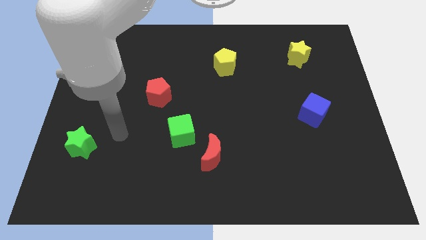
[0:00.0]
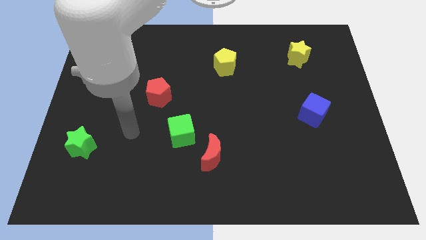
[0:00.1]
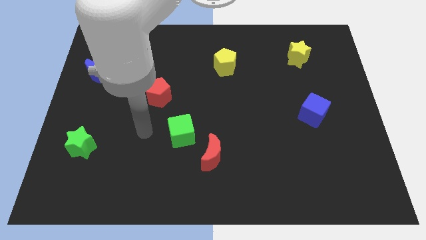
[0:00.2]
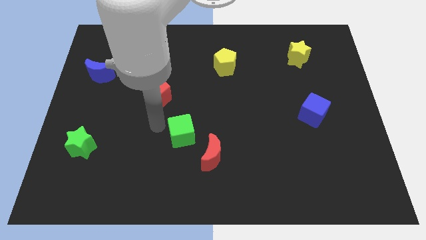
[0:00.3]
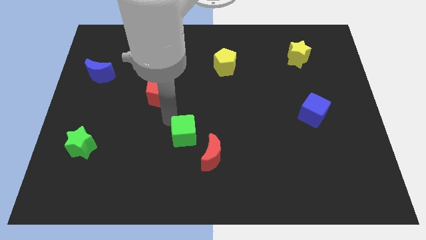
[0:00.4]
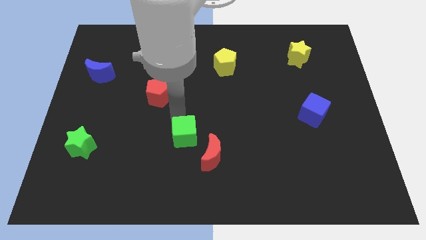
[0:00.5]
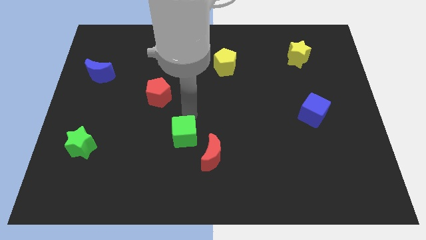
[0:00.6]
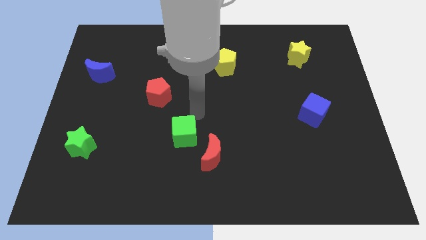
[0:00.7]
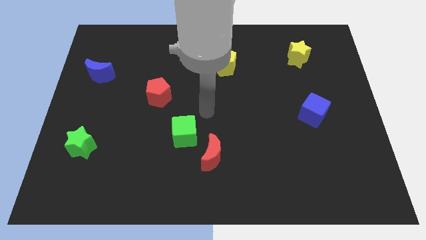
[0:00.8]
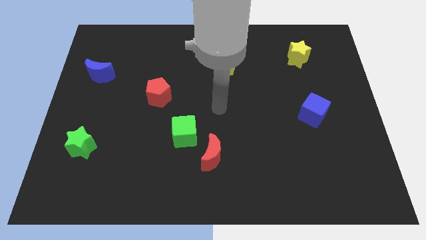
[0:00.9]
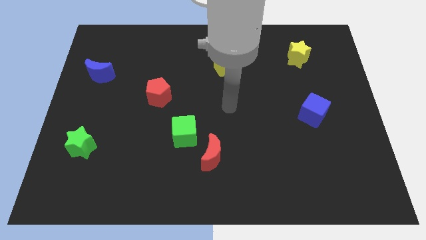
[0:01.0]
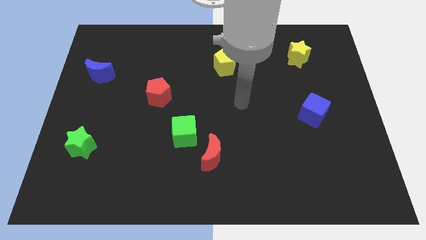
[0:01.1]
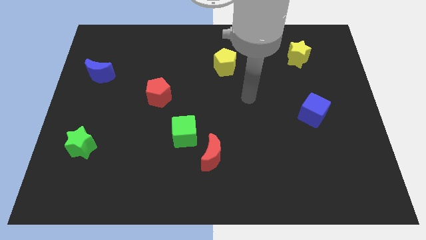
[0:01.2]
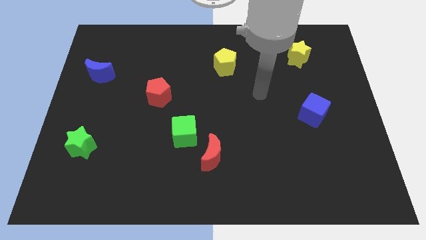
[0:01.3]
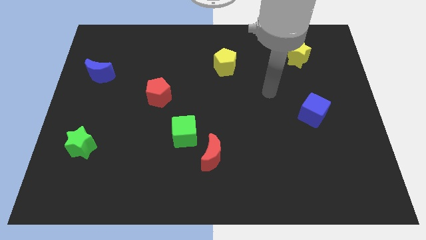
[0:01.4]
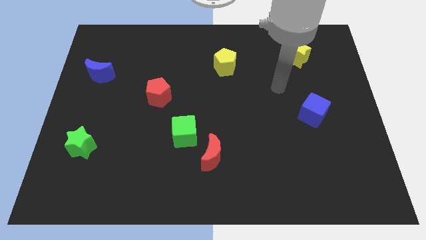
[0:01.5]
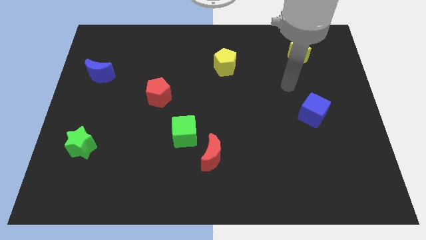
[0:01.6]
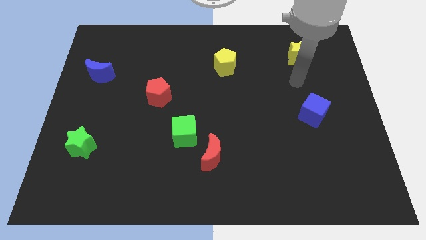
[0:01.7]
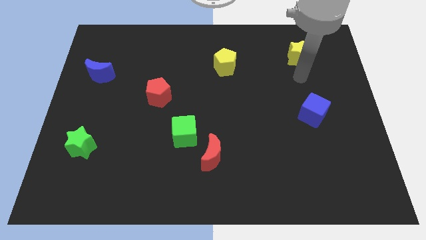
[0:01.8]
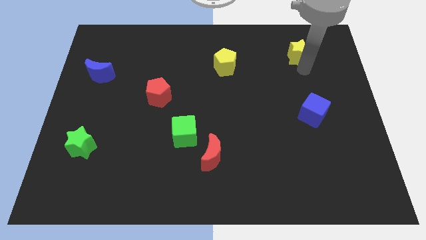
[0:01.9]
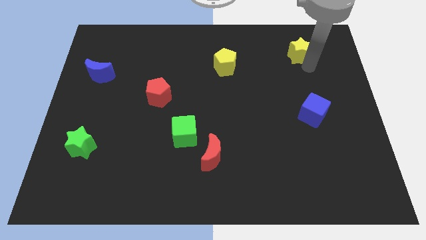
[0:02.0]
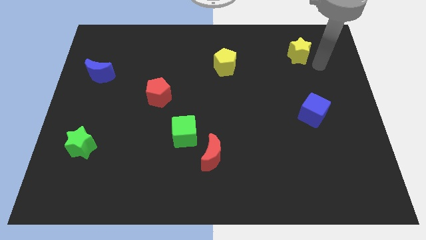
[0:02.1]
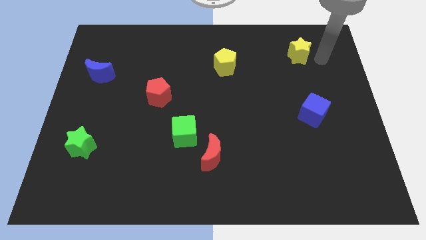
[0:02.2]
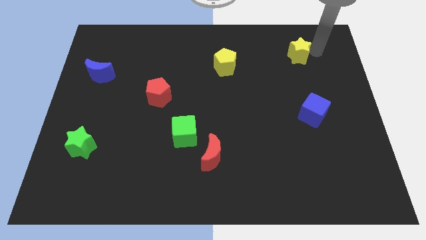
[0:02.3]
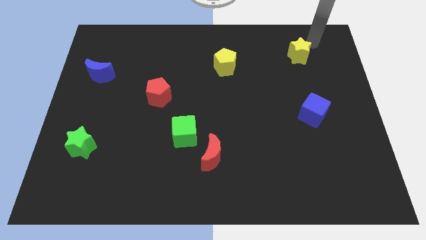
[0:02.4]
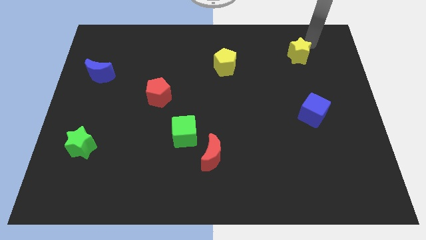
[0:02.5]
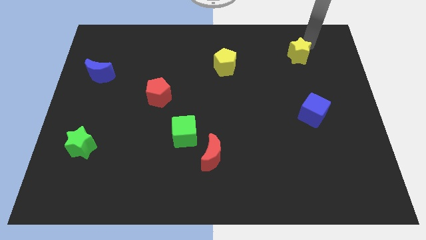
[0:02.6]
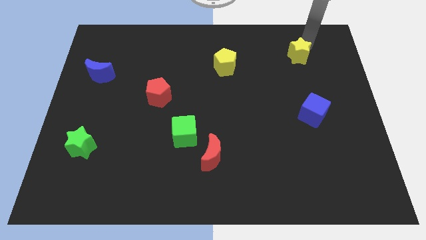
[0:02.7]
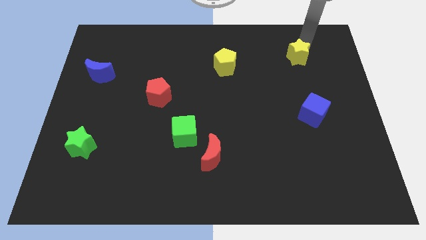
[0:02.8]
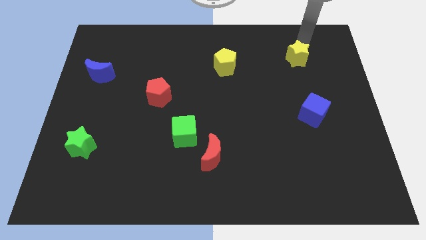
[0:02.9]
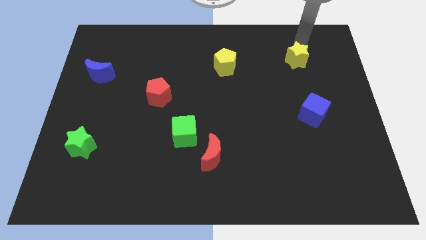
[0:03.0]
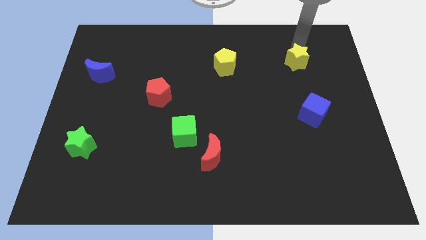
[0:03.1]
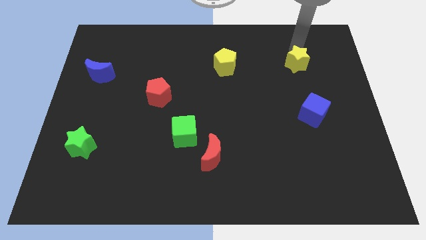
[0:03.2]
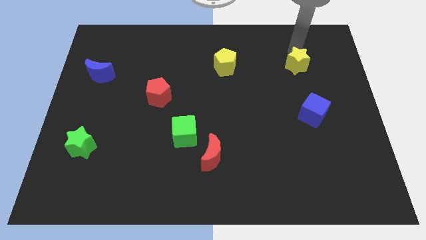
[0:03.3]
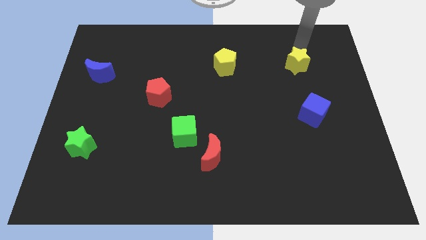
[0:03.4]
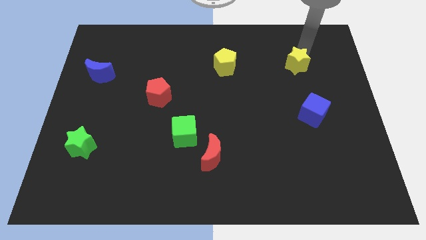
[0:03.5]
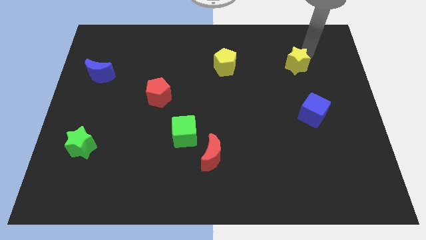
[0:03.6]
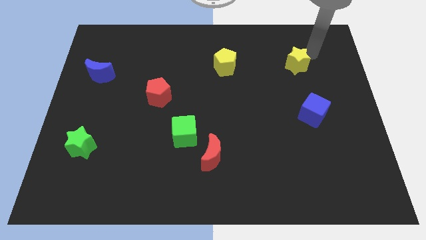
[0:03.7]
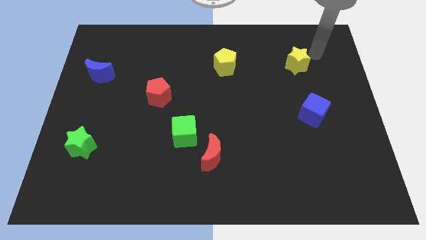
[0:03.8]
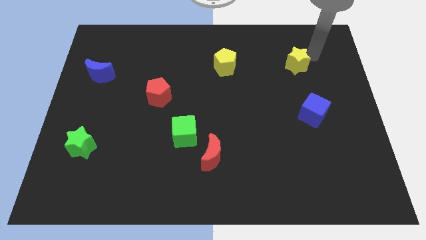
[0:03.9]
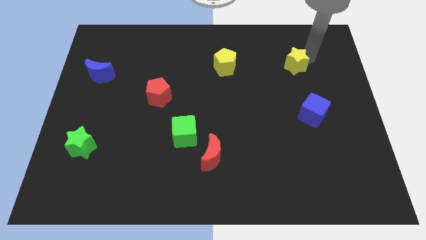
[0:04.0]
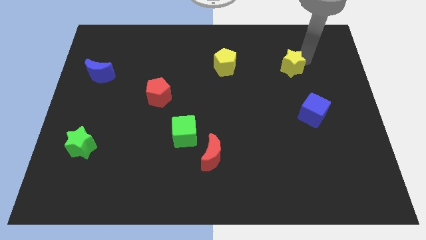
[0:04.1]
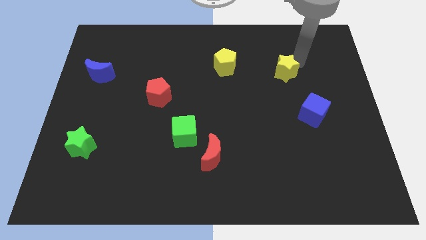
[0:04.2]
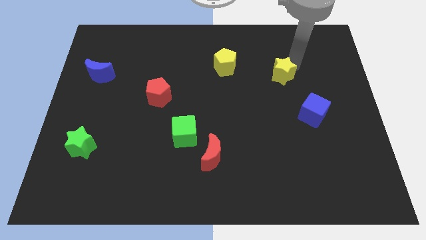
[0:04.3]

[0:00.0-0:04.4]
move the yellow star down and then to the left a little

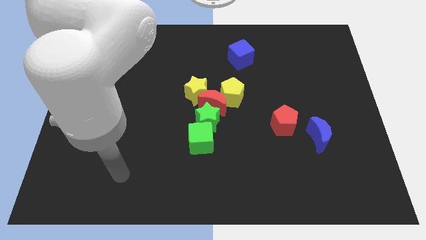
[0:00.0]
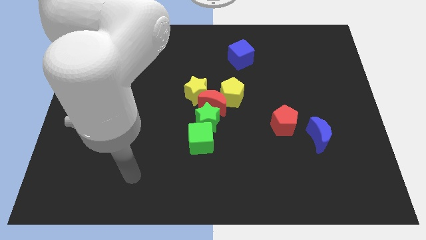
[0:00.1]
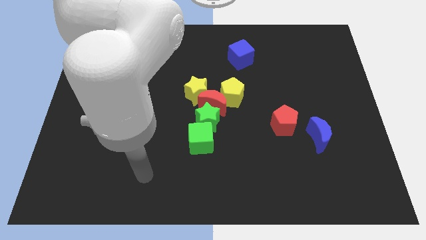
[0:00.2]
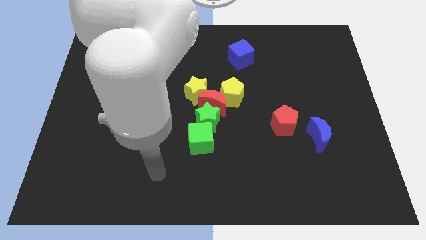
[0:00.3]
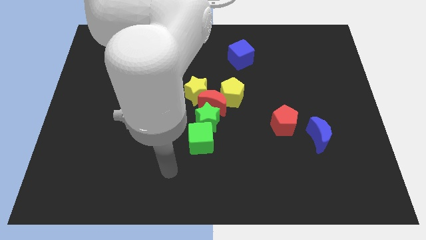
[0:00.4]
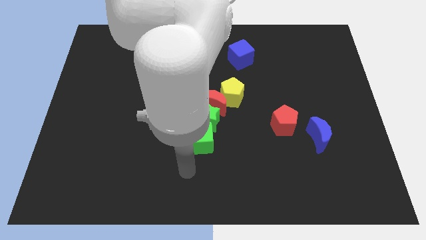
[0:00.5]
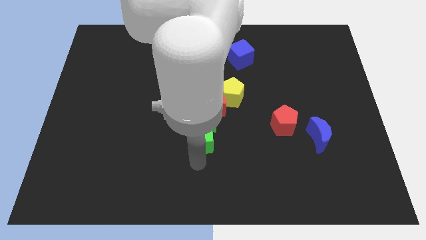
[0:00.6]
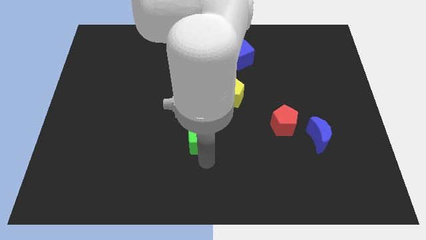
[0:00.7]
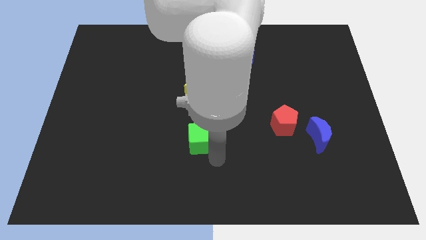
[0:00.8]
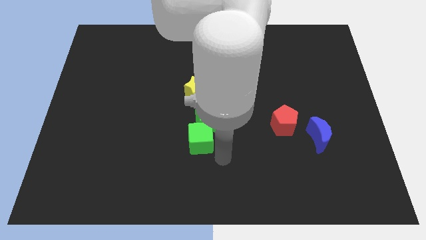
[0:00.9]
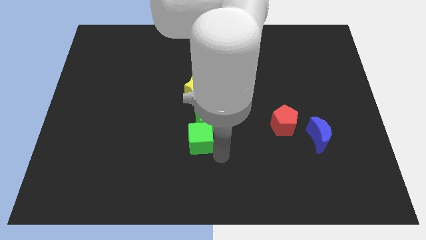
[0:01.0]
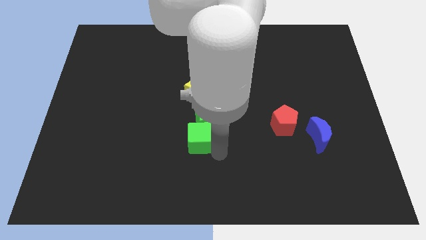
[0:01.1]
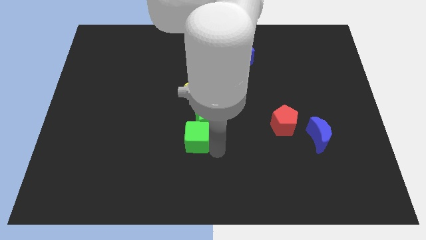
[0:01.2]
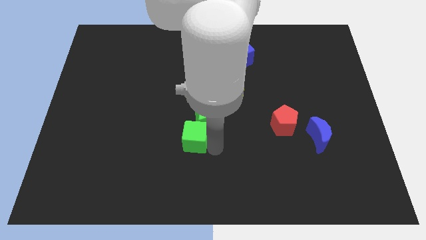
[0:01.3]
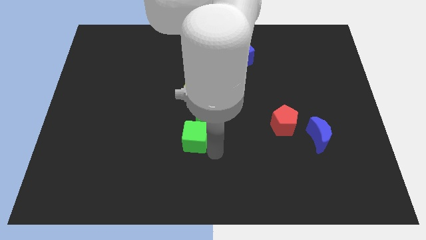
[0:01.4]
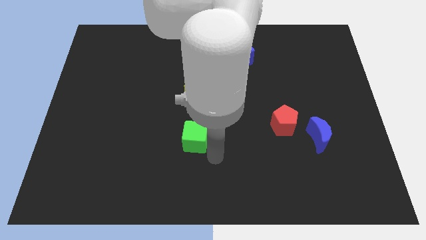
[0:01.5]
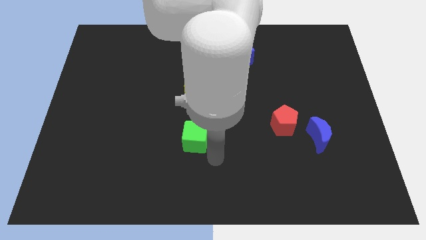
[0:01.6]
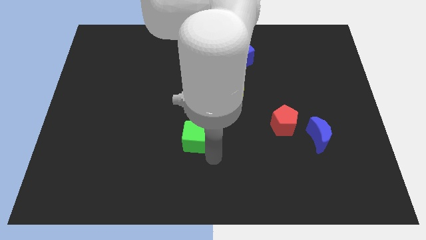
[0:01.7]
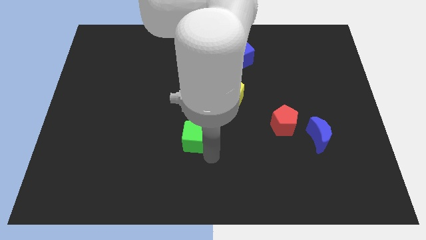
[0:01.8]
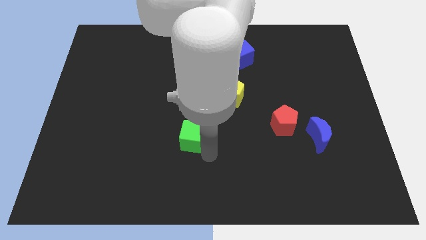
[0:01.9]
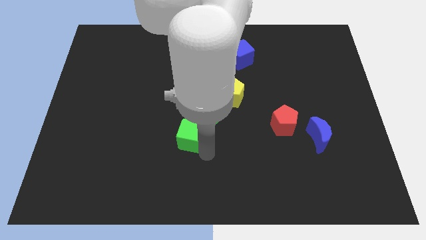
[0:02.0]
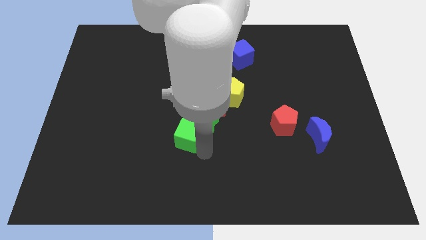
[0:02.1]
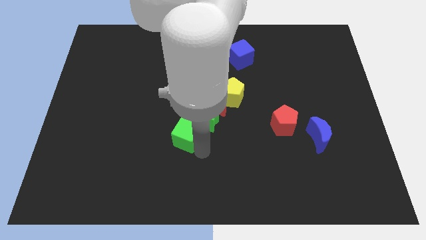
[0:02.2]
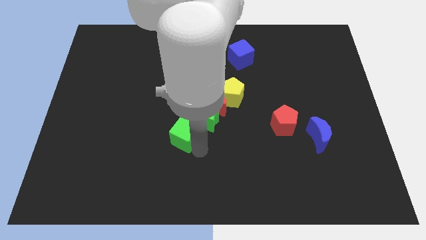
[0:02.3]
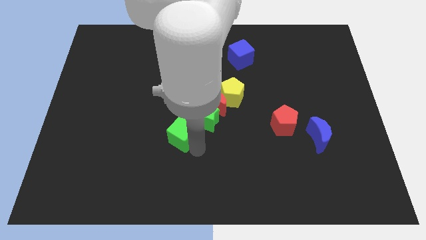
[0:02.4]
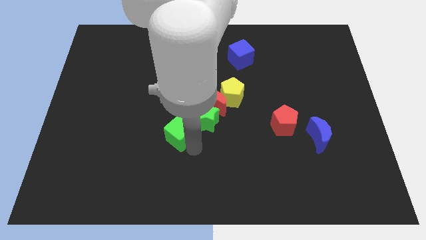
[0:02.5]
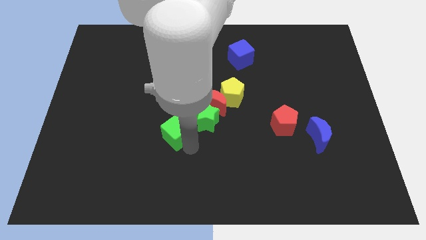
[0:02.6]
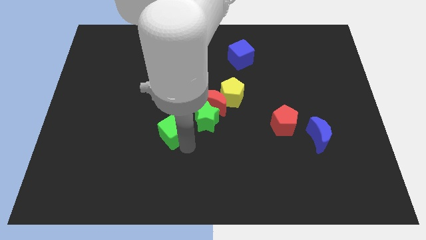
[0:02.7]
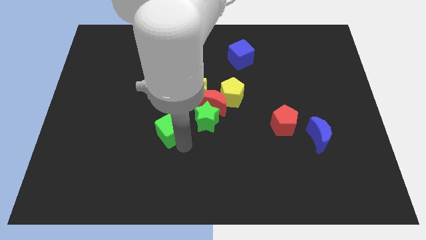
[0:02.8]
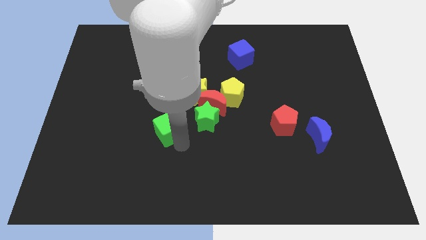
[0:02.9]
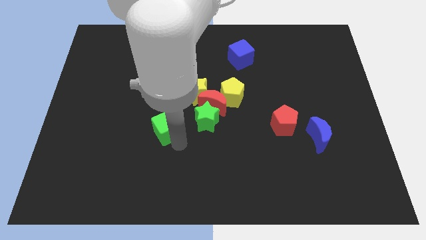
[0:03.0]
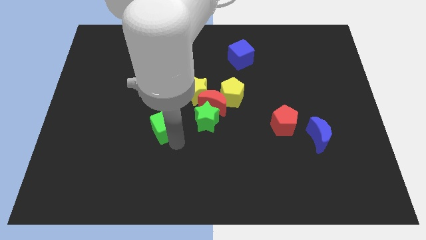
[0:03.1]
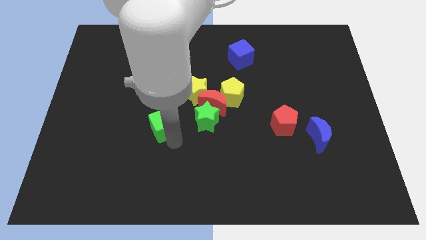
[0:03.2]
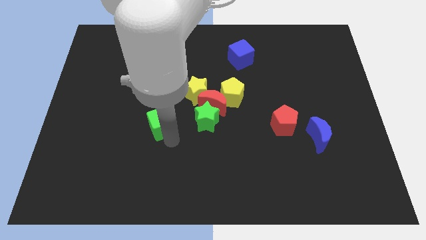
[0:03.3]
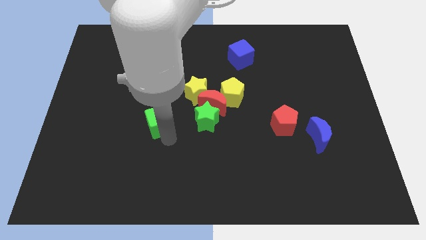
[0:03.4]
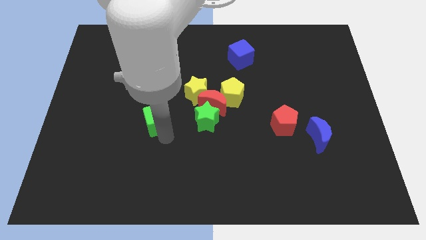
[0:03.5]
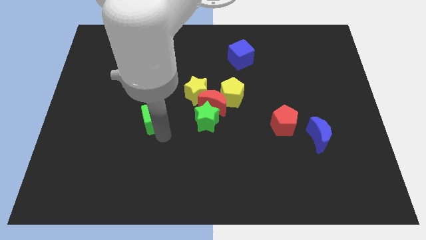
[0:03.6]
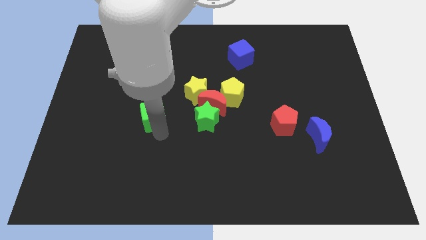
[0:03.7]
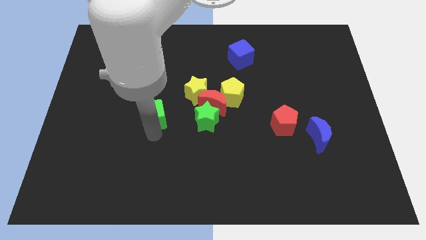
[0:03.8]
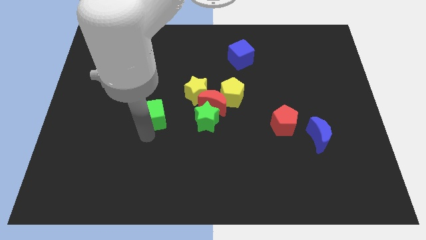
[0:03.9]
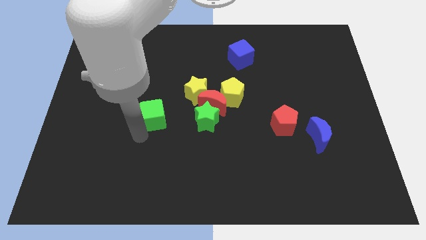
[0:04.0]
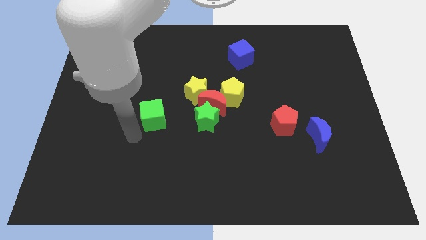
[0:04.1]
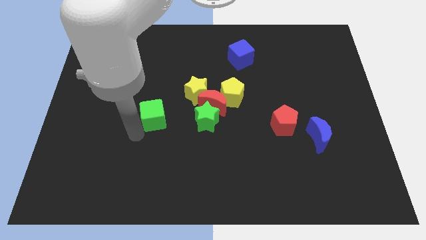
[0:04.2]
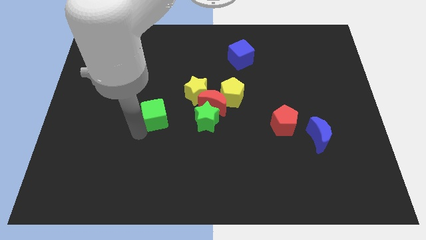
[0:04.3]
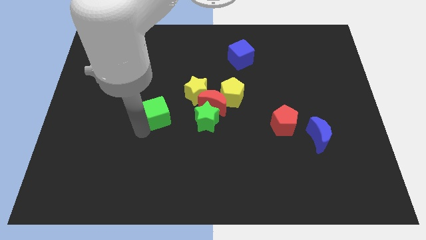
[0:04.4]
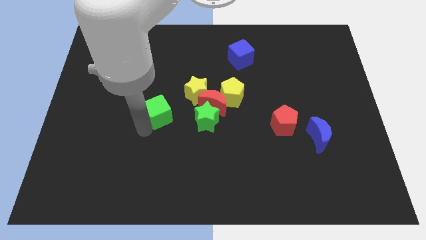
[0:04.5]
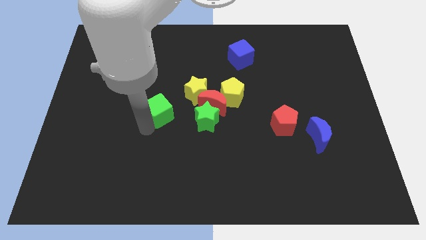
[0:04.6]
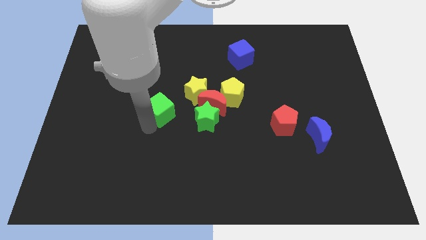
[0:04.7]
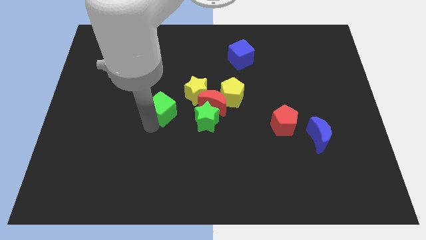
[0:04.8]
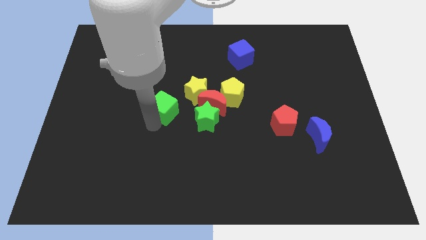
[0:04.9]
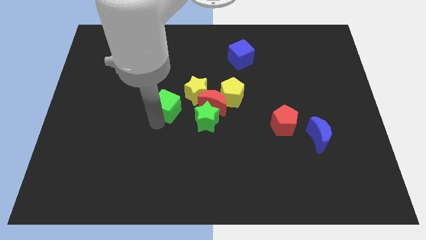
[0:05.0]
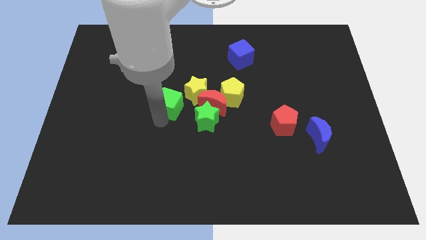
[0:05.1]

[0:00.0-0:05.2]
push the green cube a little bit up
